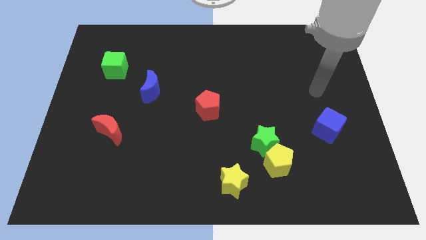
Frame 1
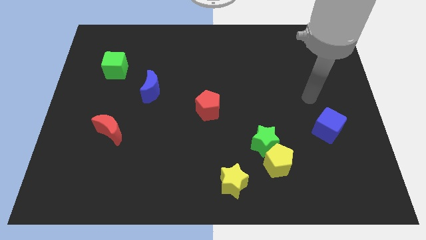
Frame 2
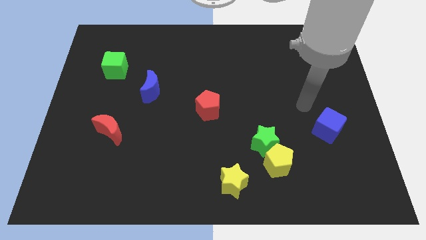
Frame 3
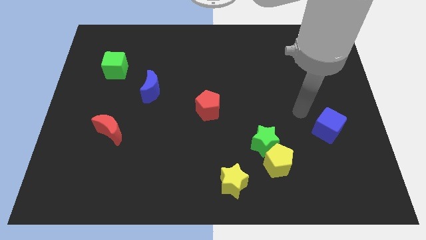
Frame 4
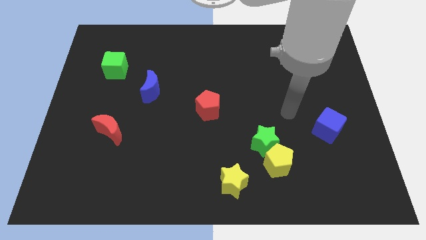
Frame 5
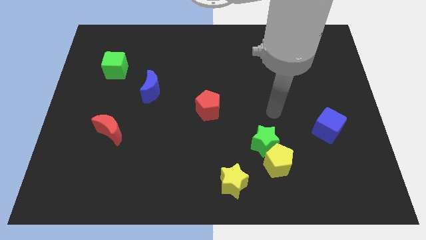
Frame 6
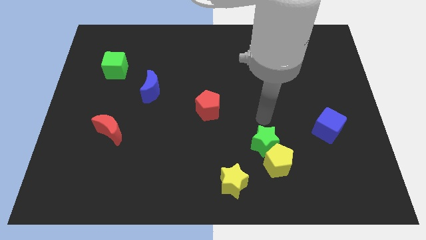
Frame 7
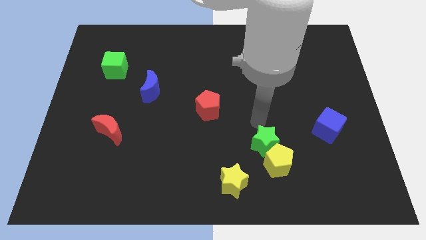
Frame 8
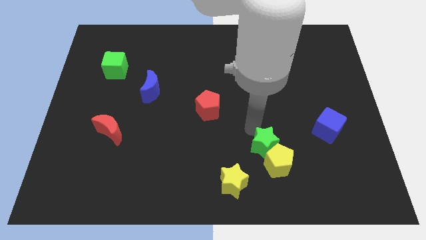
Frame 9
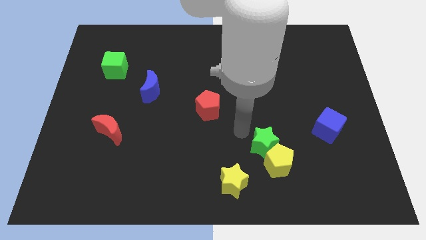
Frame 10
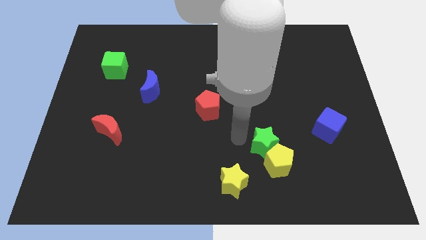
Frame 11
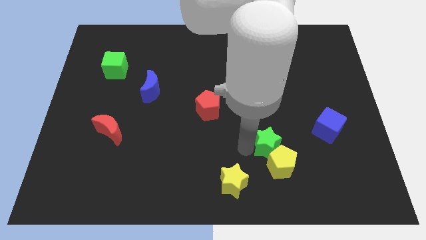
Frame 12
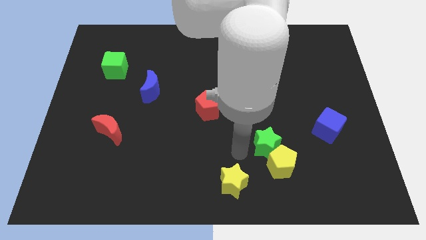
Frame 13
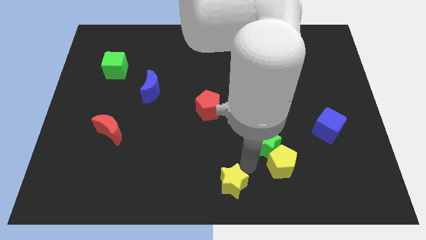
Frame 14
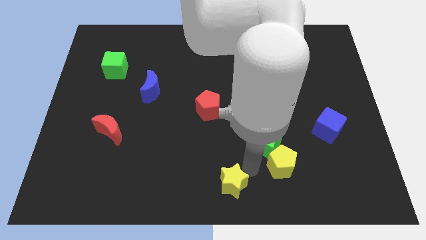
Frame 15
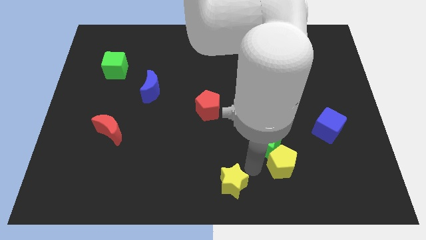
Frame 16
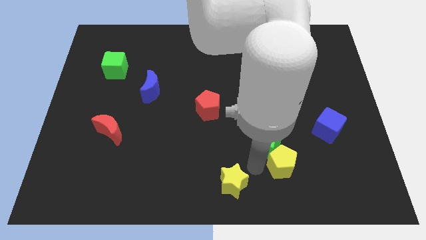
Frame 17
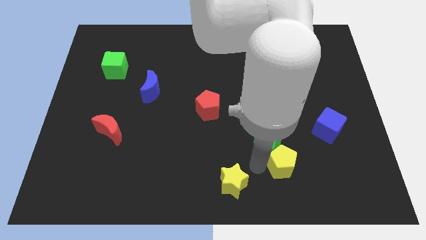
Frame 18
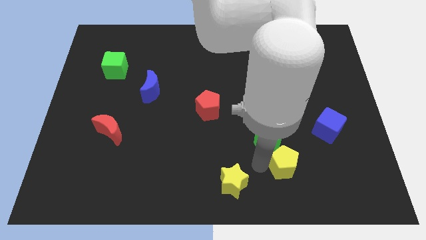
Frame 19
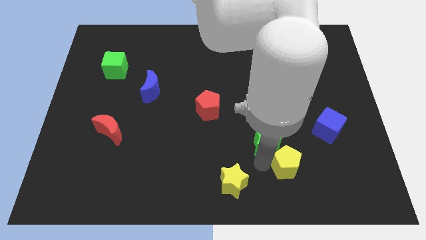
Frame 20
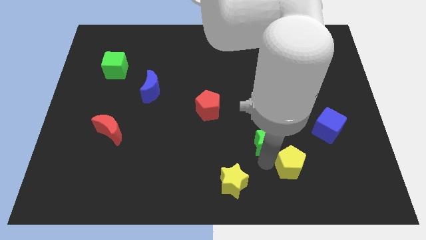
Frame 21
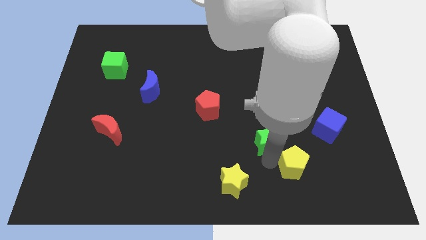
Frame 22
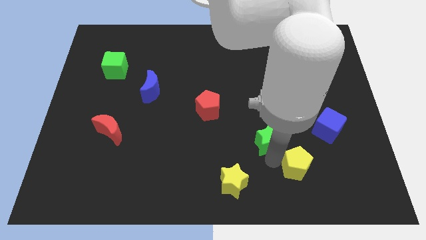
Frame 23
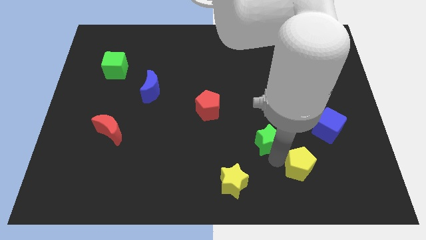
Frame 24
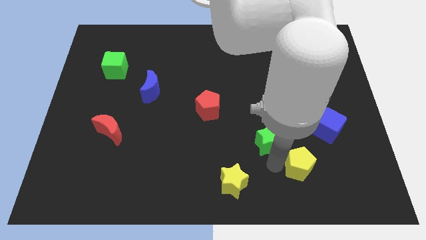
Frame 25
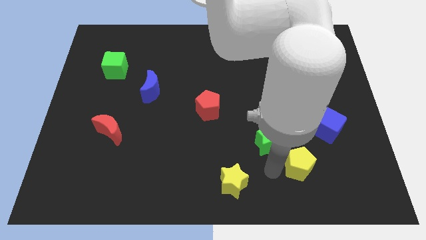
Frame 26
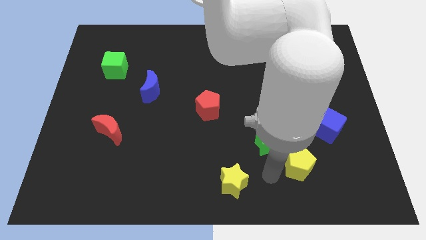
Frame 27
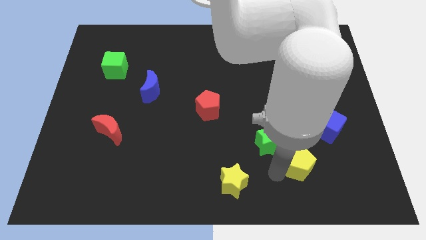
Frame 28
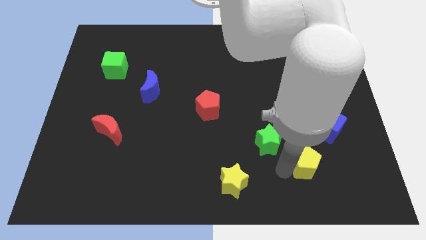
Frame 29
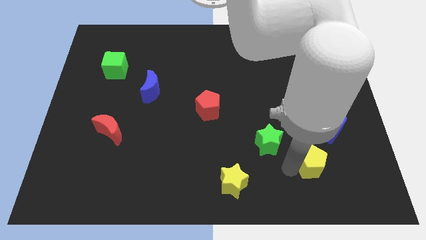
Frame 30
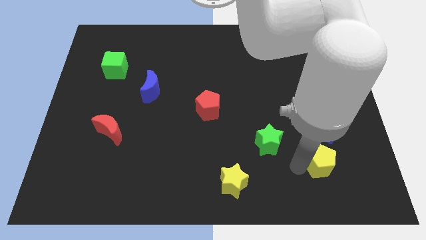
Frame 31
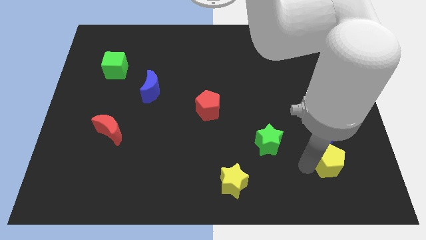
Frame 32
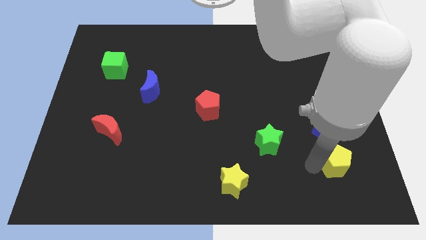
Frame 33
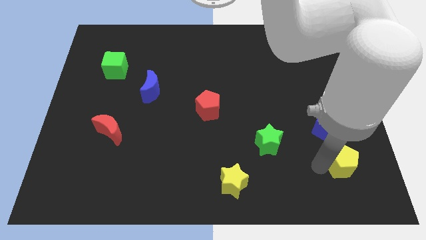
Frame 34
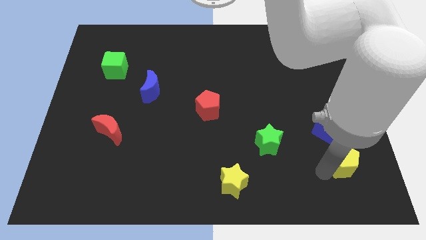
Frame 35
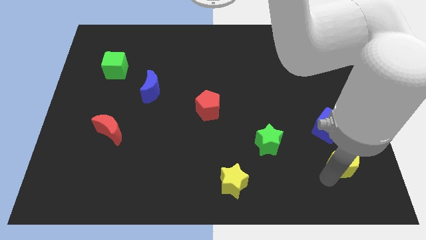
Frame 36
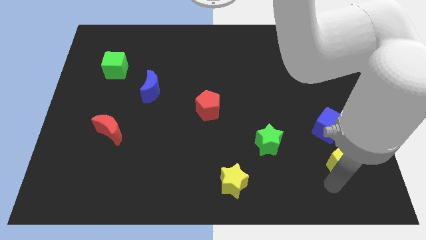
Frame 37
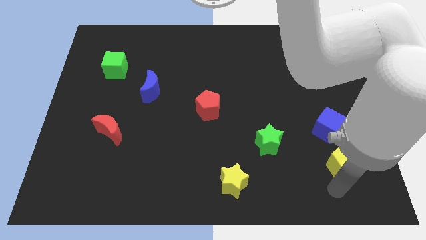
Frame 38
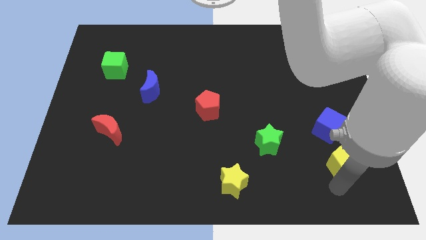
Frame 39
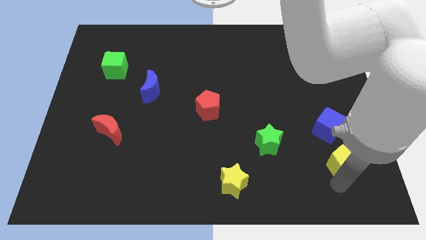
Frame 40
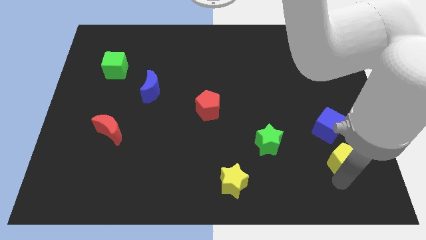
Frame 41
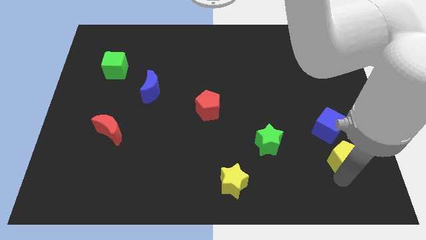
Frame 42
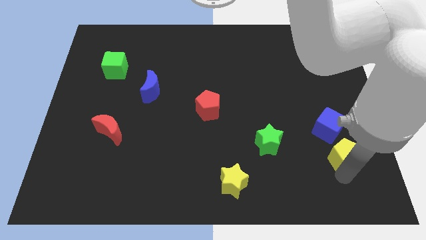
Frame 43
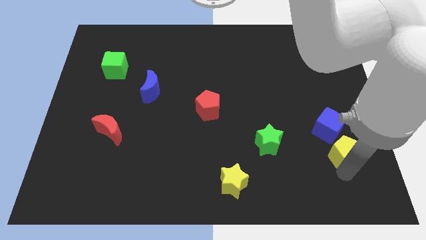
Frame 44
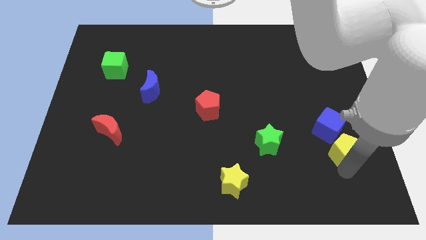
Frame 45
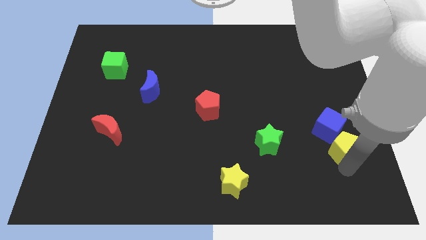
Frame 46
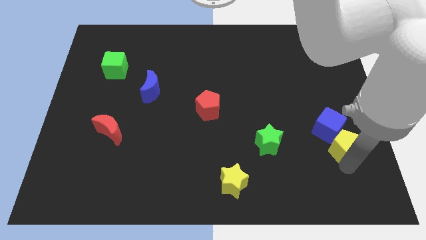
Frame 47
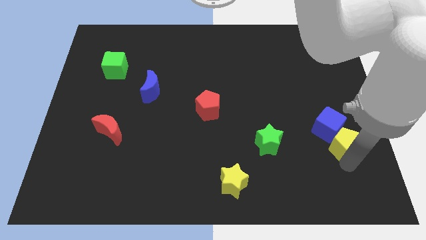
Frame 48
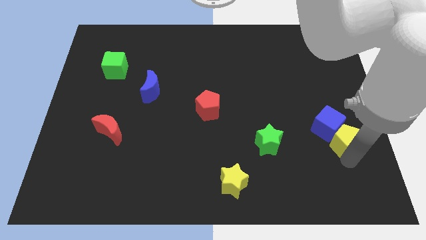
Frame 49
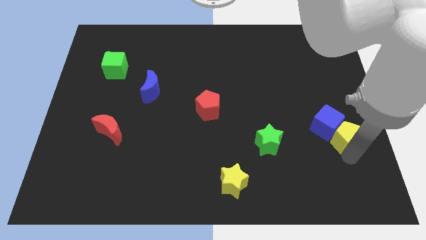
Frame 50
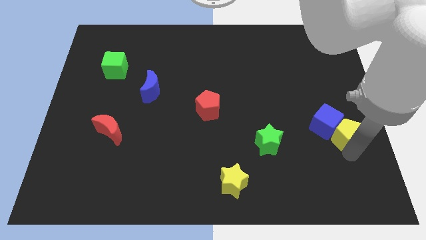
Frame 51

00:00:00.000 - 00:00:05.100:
put the yellow pentagon to the right side of the board

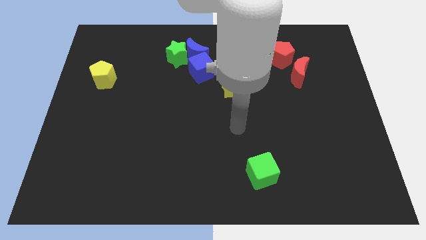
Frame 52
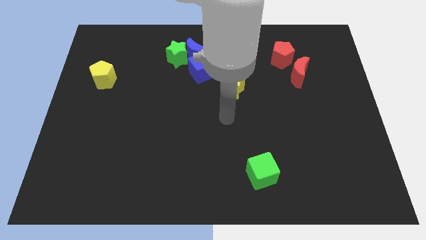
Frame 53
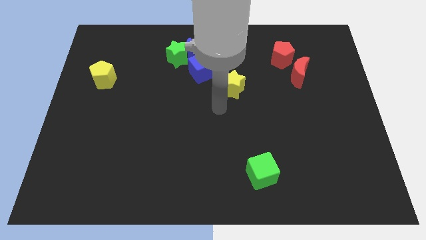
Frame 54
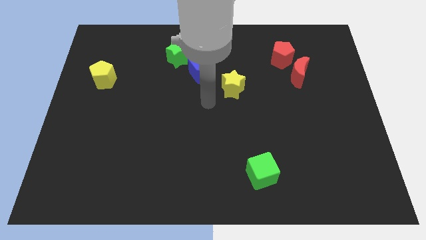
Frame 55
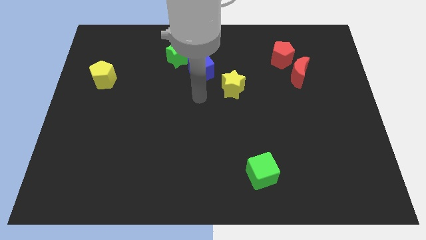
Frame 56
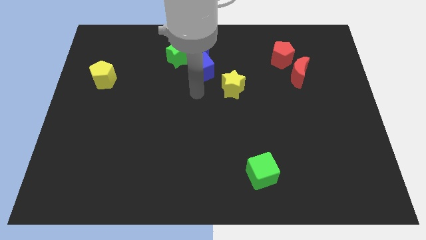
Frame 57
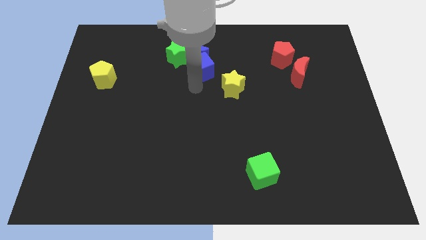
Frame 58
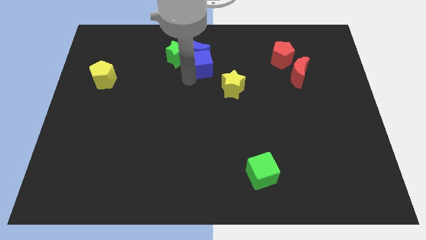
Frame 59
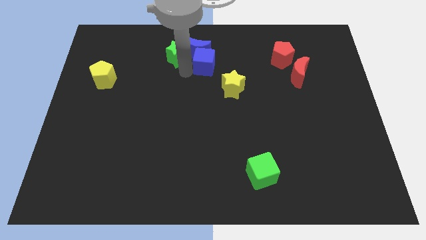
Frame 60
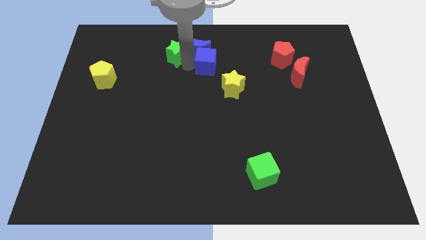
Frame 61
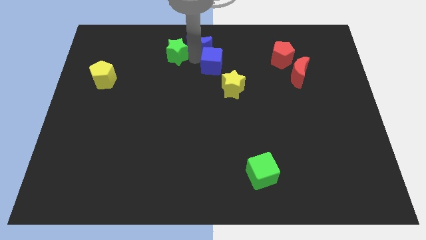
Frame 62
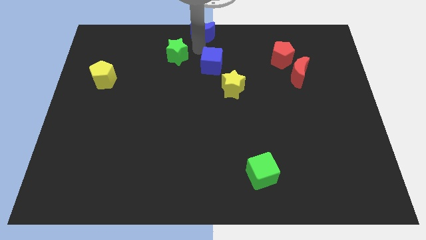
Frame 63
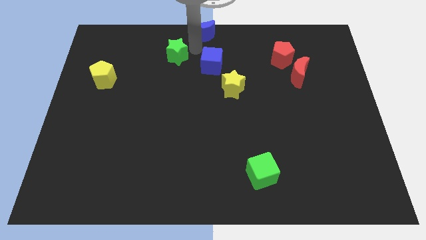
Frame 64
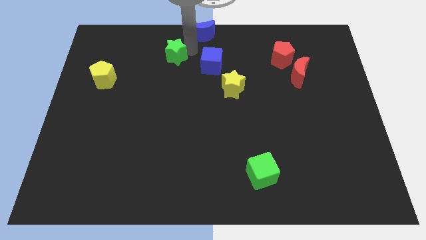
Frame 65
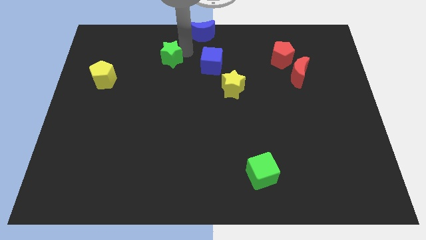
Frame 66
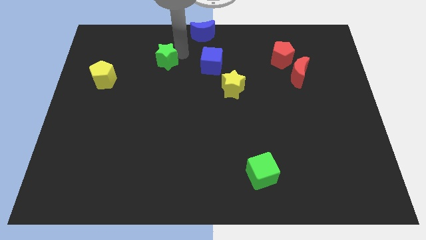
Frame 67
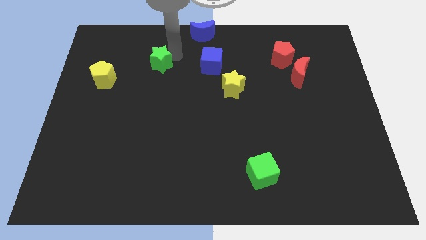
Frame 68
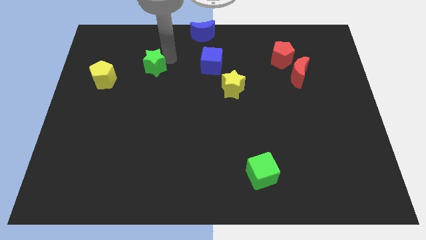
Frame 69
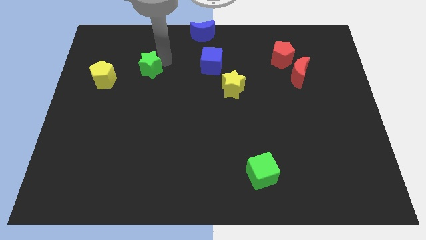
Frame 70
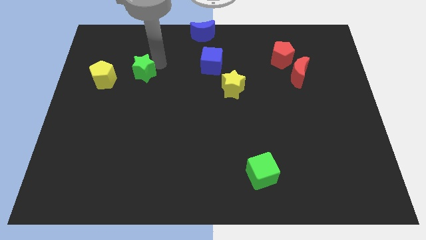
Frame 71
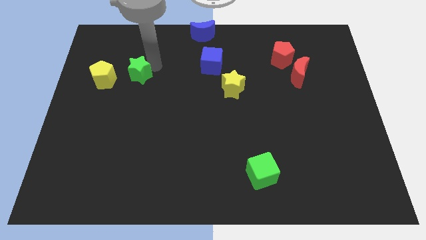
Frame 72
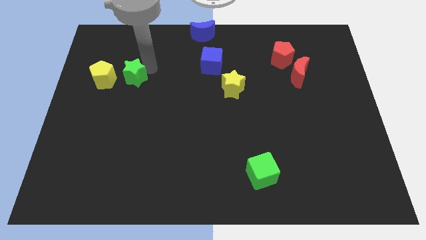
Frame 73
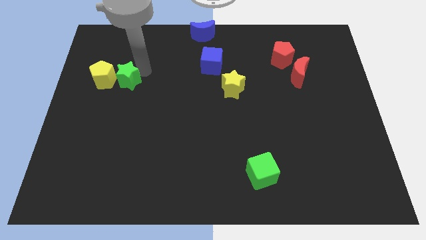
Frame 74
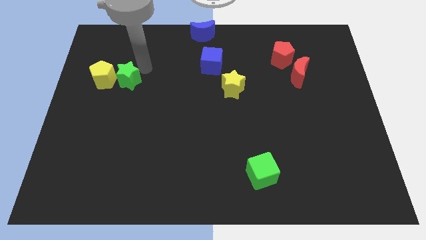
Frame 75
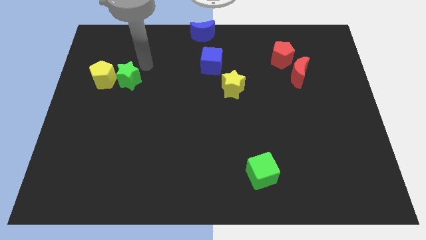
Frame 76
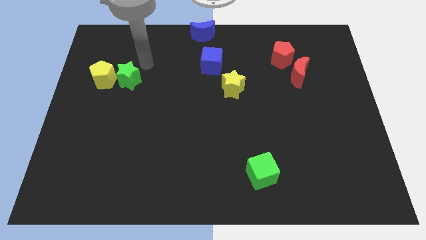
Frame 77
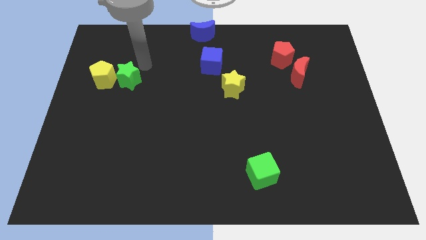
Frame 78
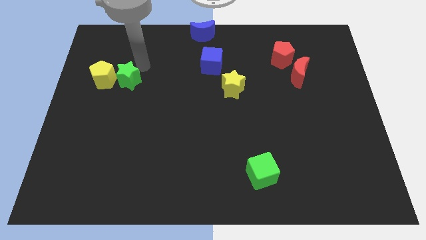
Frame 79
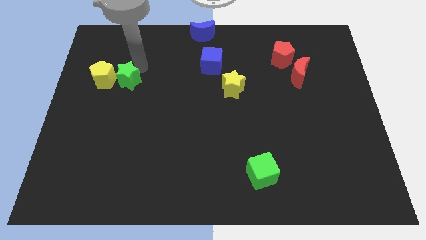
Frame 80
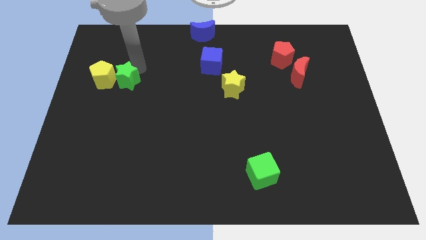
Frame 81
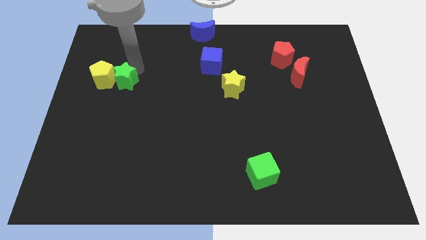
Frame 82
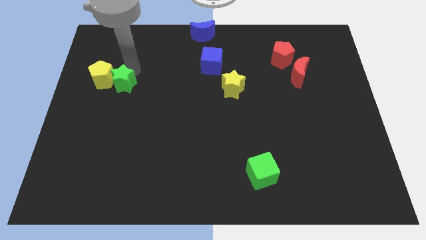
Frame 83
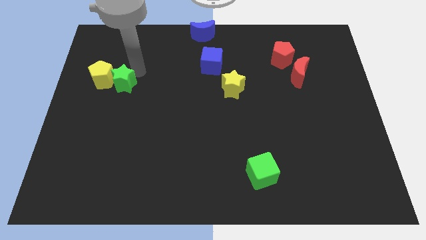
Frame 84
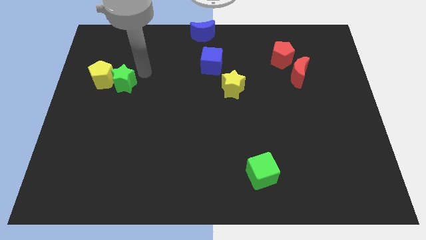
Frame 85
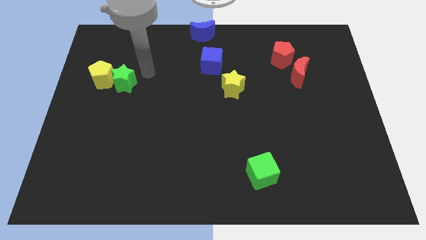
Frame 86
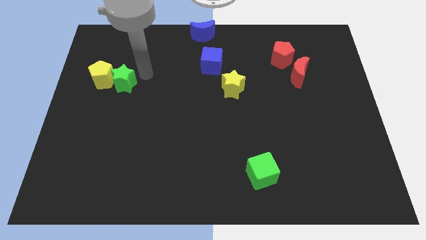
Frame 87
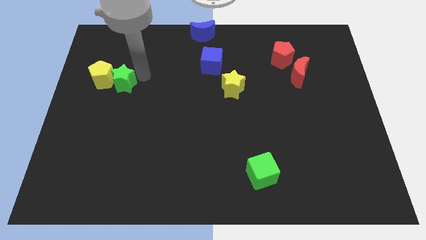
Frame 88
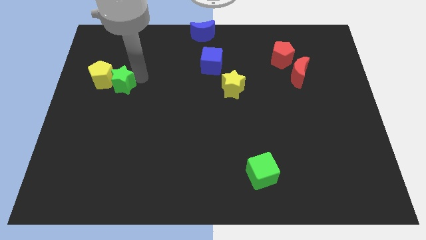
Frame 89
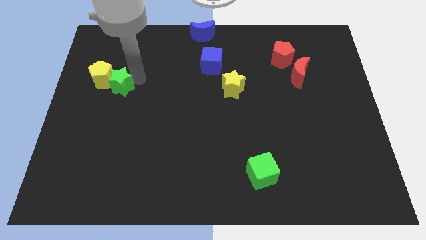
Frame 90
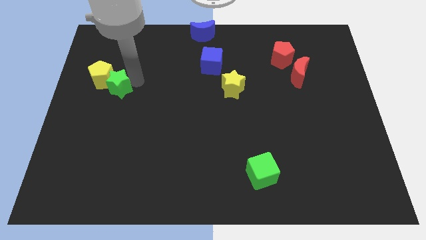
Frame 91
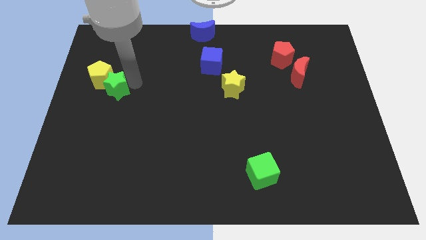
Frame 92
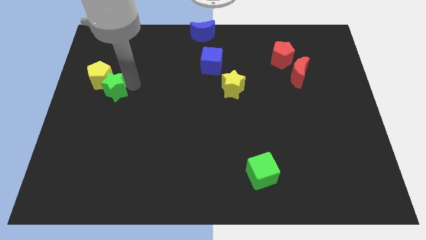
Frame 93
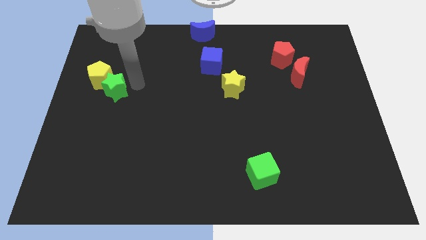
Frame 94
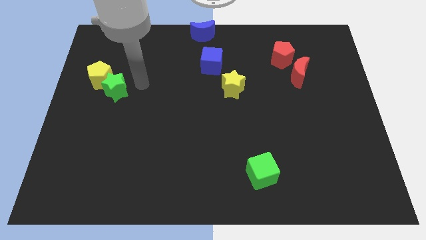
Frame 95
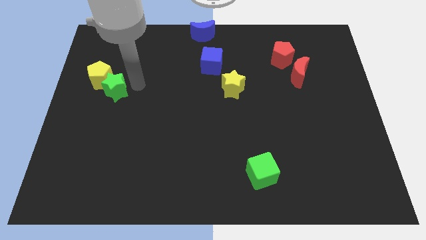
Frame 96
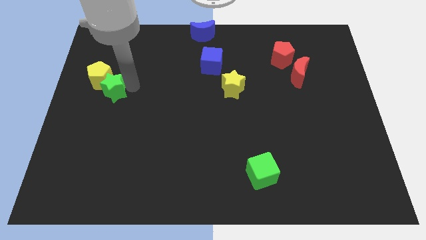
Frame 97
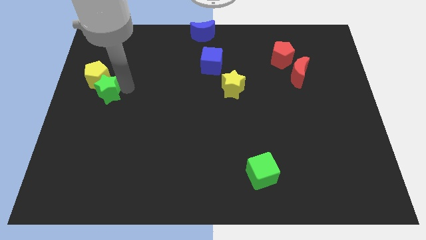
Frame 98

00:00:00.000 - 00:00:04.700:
push the green star to the left side
